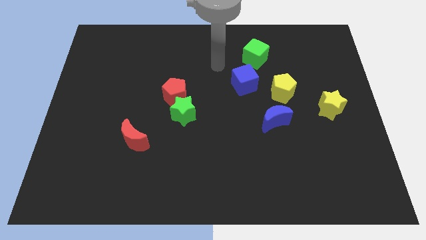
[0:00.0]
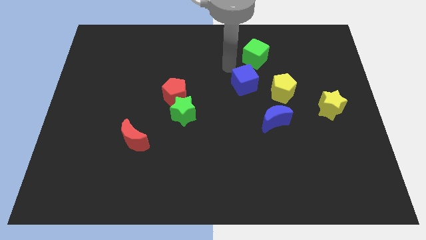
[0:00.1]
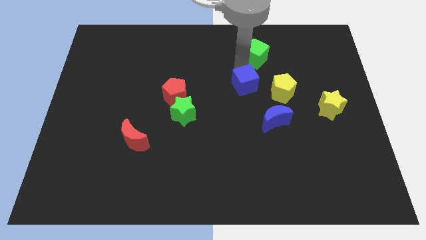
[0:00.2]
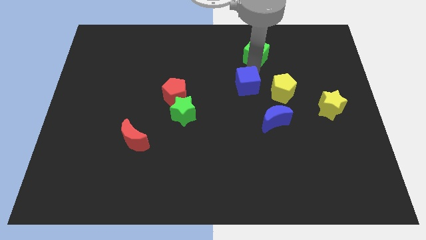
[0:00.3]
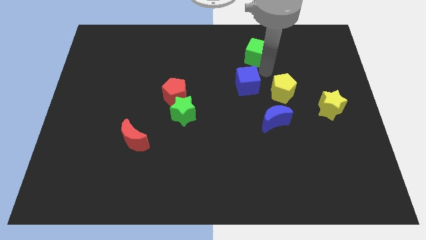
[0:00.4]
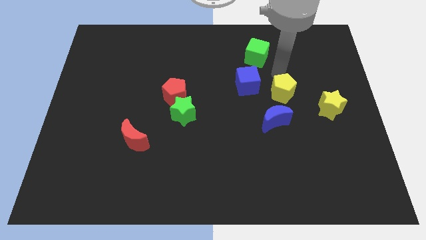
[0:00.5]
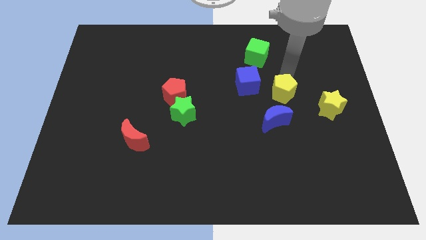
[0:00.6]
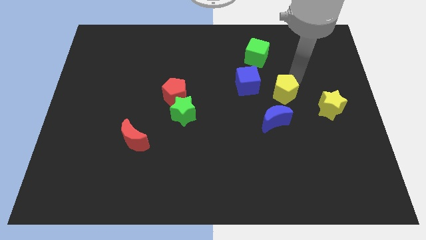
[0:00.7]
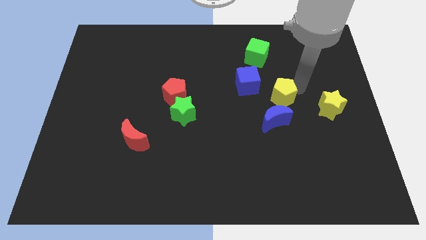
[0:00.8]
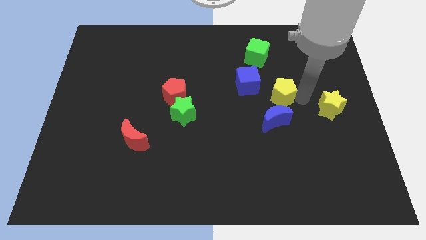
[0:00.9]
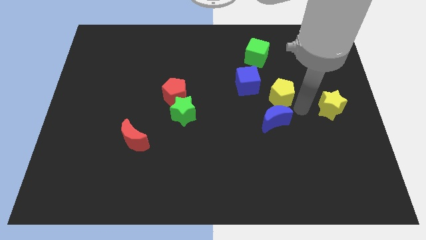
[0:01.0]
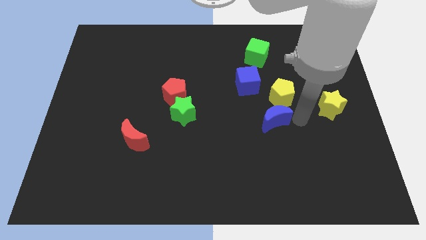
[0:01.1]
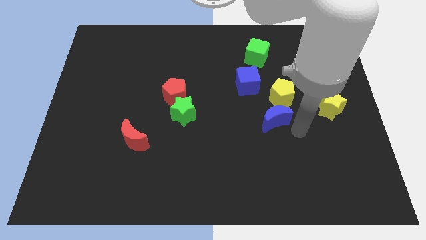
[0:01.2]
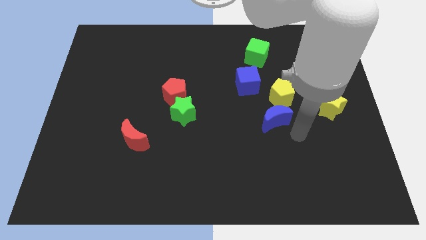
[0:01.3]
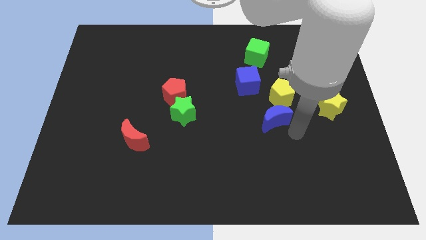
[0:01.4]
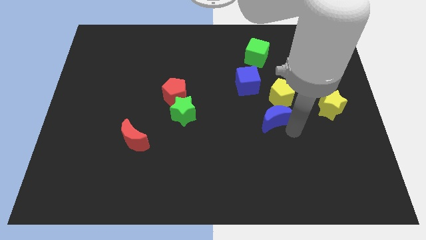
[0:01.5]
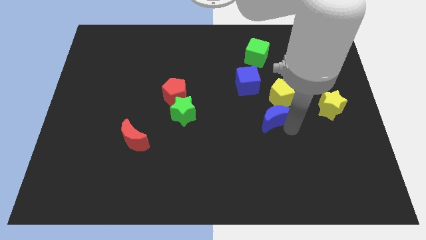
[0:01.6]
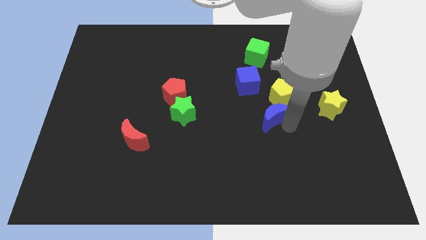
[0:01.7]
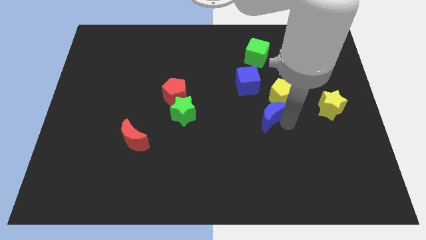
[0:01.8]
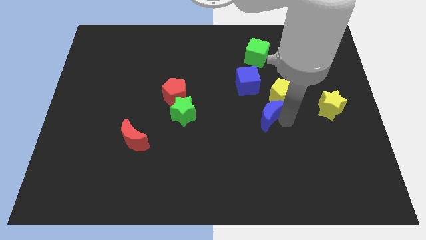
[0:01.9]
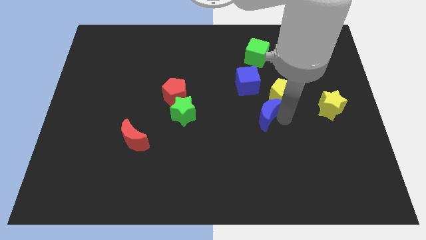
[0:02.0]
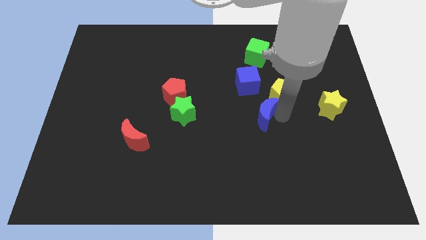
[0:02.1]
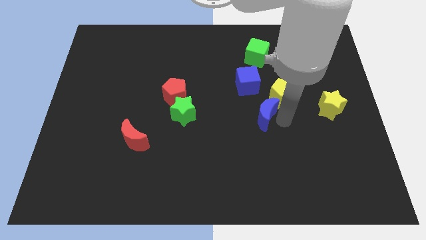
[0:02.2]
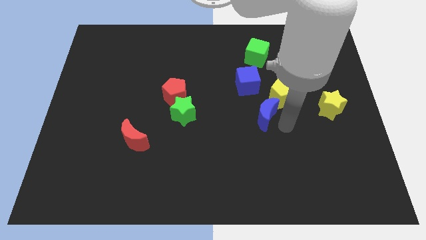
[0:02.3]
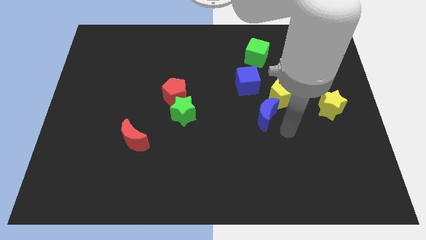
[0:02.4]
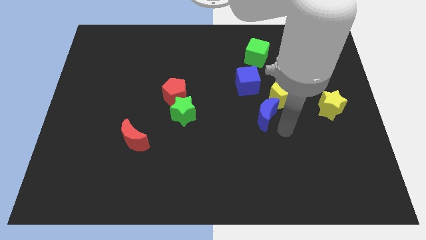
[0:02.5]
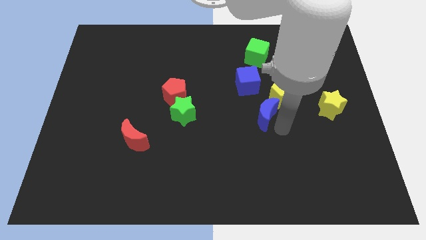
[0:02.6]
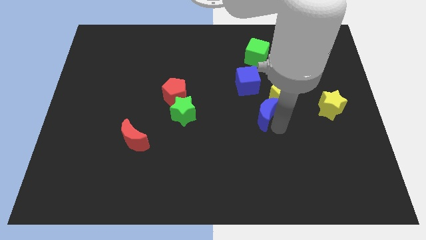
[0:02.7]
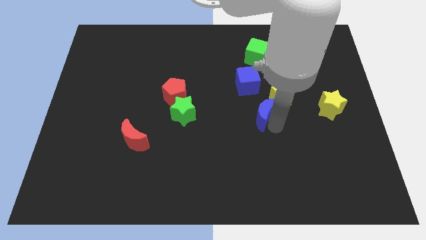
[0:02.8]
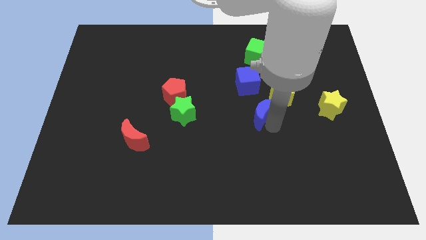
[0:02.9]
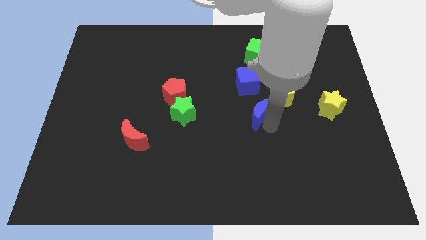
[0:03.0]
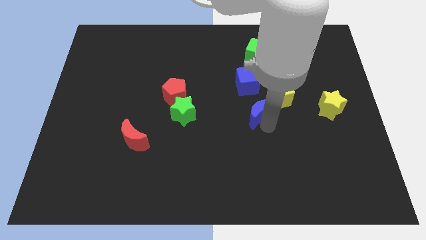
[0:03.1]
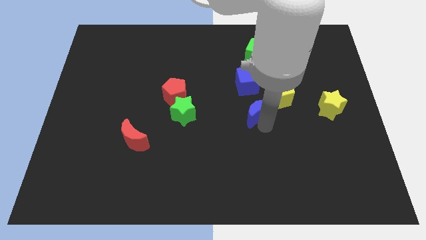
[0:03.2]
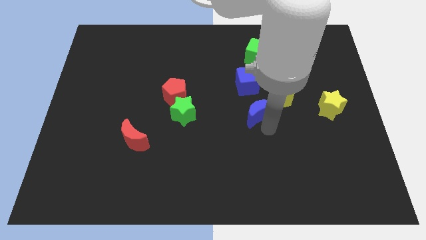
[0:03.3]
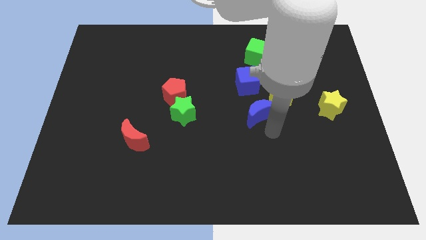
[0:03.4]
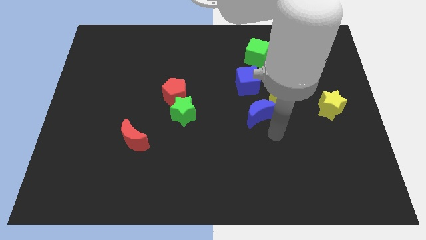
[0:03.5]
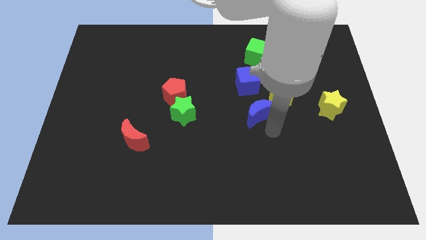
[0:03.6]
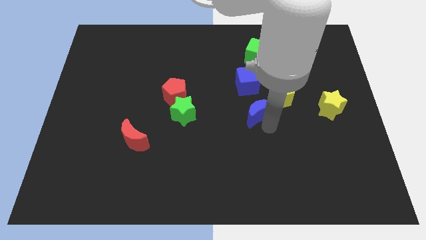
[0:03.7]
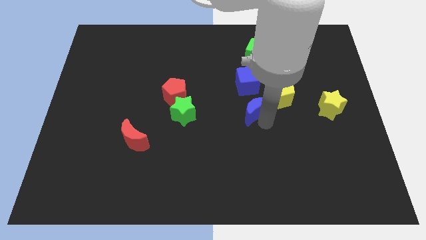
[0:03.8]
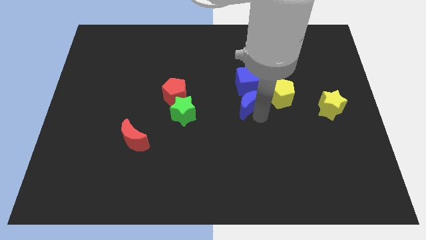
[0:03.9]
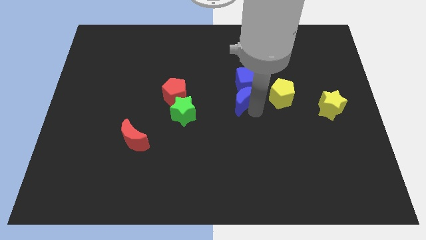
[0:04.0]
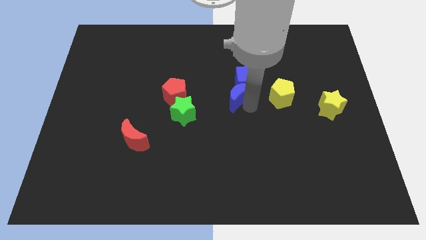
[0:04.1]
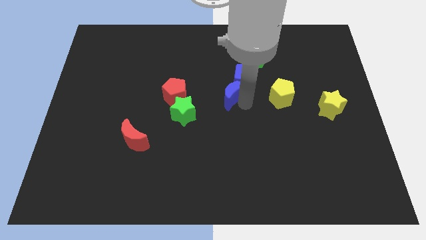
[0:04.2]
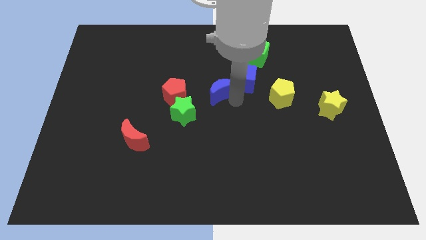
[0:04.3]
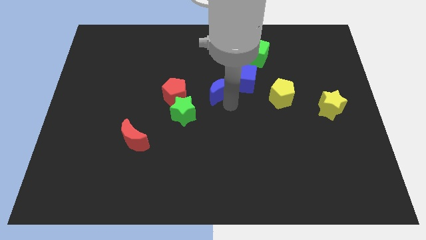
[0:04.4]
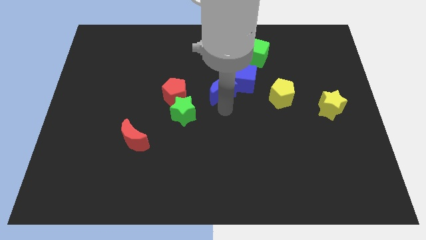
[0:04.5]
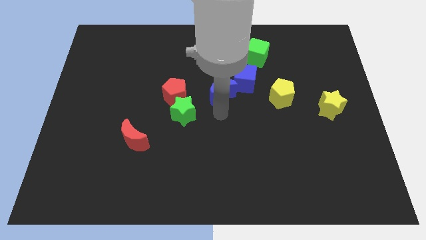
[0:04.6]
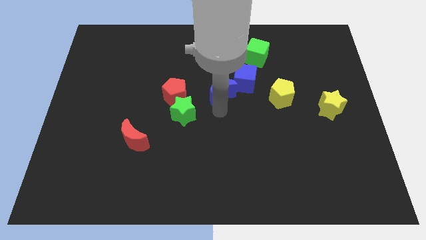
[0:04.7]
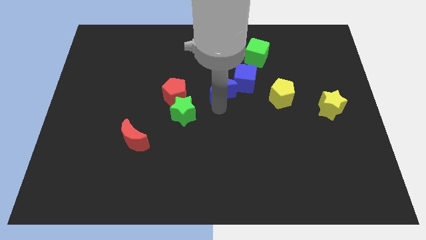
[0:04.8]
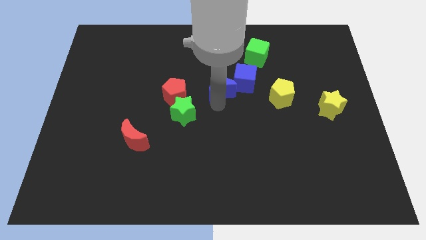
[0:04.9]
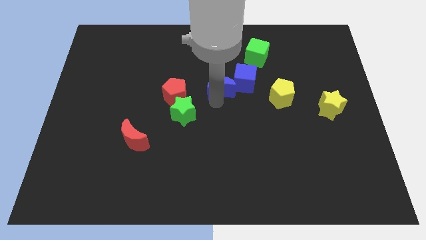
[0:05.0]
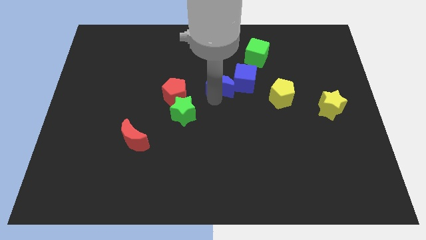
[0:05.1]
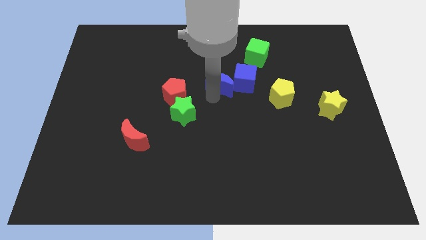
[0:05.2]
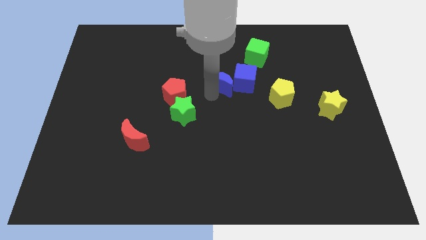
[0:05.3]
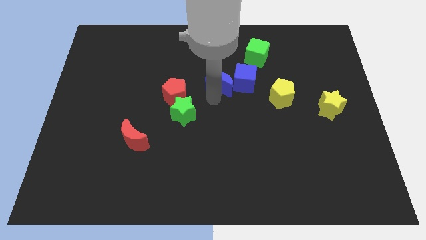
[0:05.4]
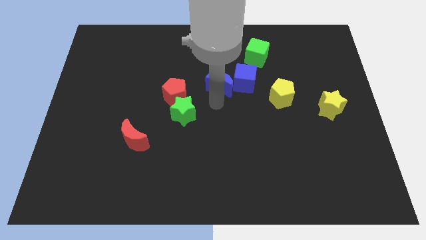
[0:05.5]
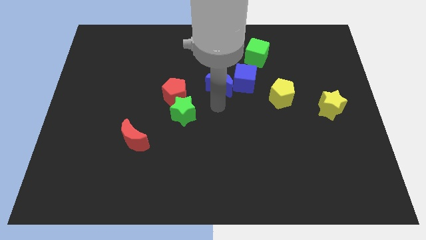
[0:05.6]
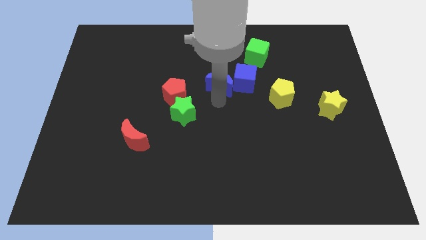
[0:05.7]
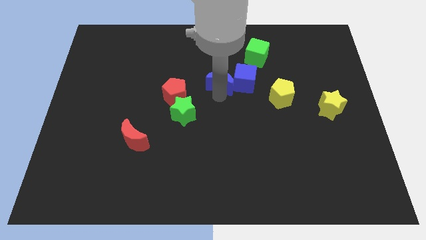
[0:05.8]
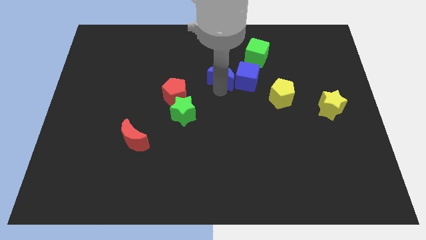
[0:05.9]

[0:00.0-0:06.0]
put the blue moon to the bottom left side of the green cube

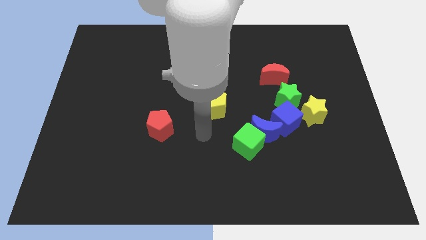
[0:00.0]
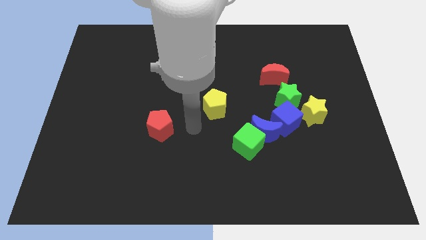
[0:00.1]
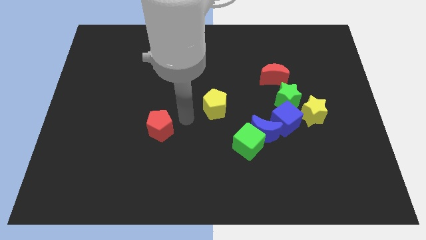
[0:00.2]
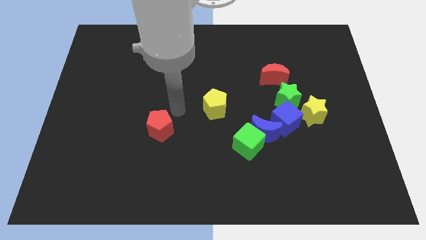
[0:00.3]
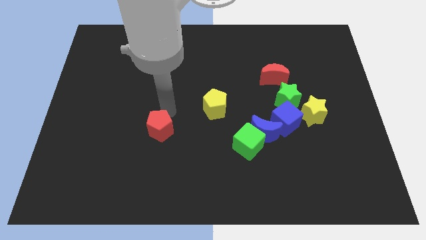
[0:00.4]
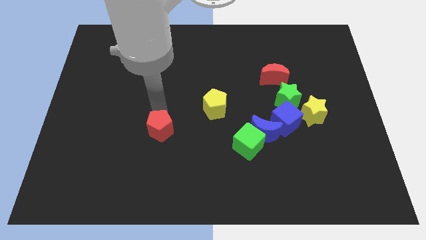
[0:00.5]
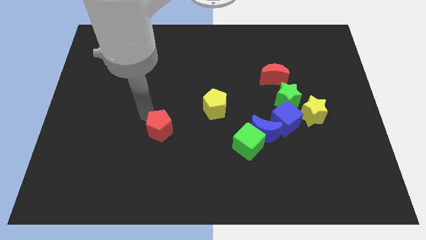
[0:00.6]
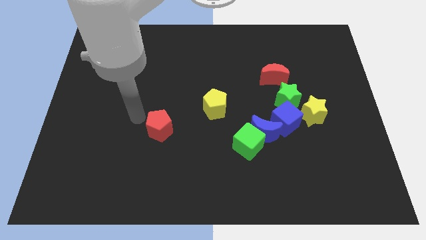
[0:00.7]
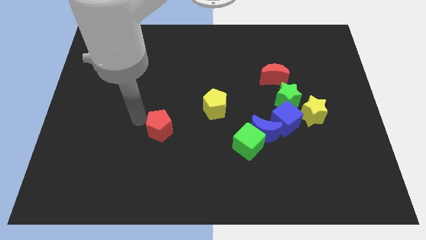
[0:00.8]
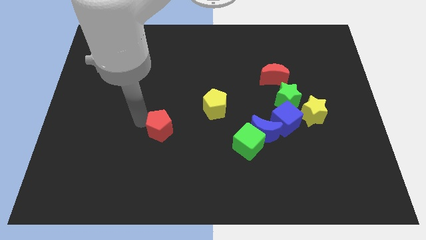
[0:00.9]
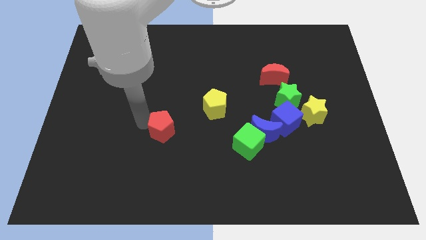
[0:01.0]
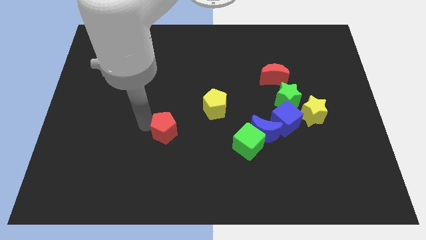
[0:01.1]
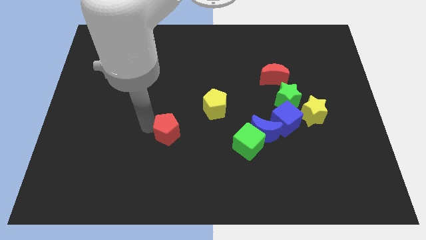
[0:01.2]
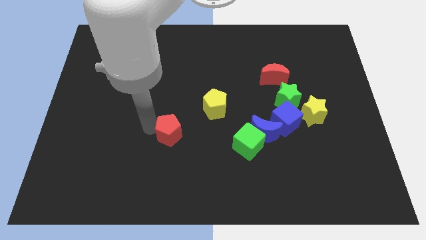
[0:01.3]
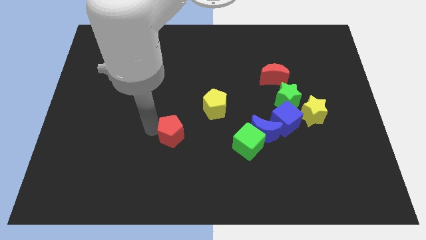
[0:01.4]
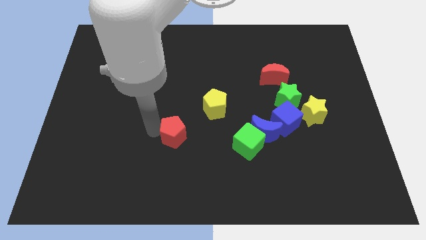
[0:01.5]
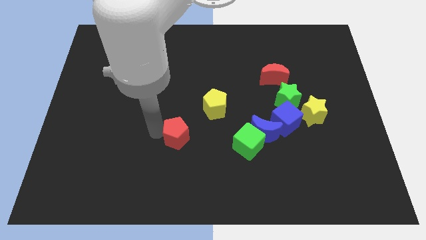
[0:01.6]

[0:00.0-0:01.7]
push the red pentagon to the left side of the green cube
